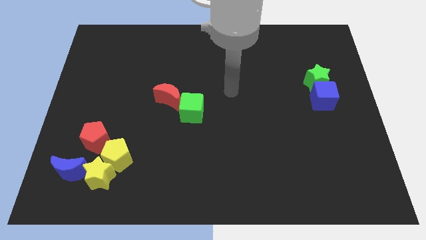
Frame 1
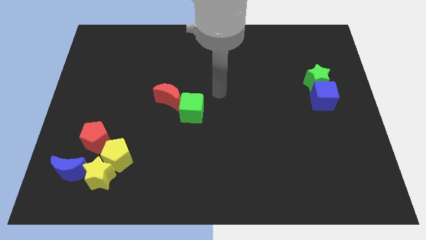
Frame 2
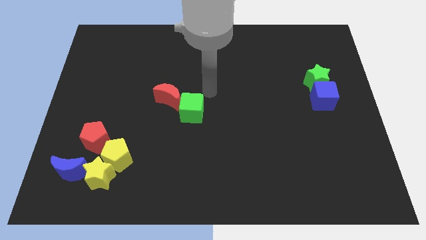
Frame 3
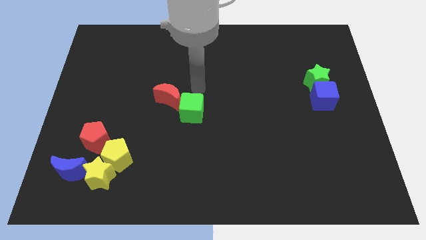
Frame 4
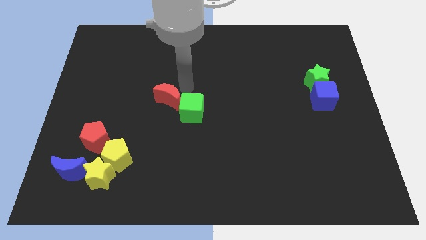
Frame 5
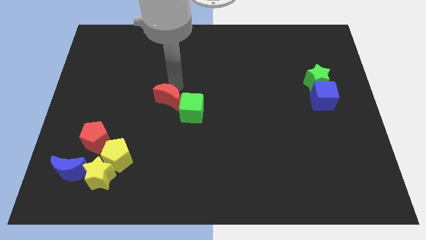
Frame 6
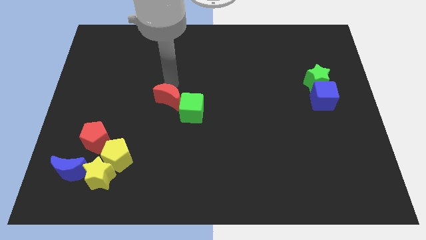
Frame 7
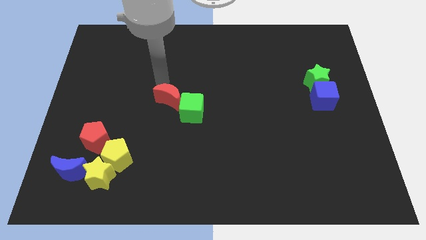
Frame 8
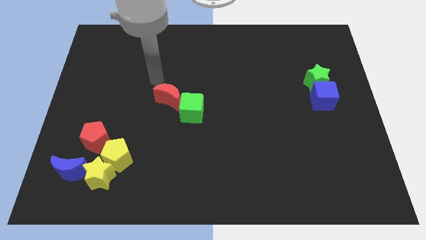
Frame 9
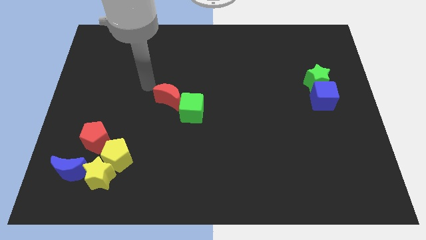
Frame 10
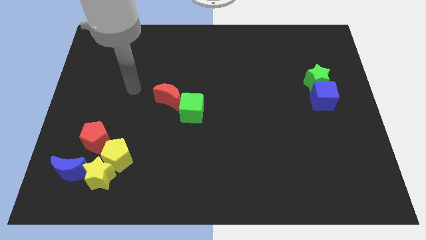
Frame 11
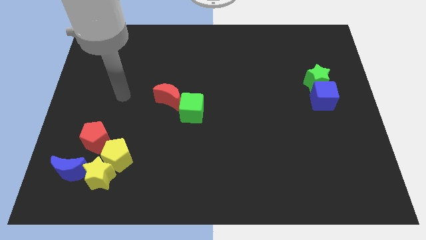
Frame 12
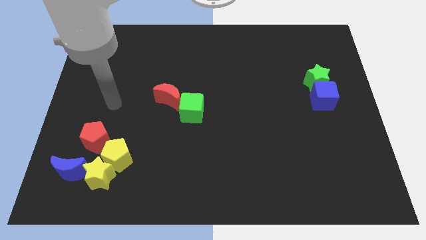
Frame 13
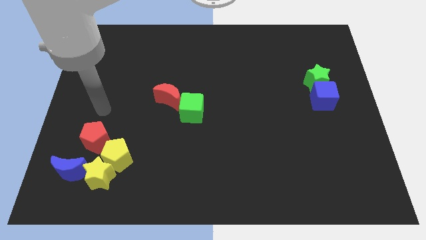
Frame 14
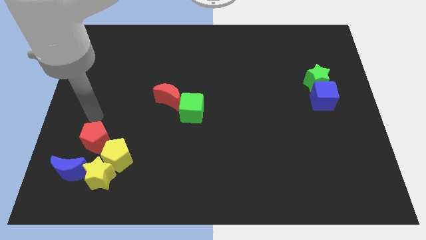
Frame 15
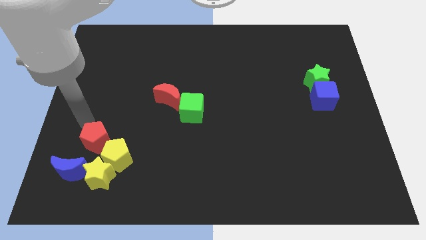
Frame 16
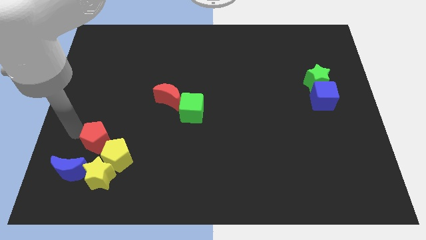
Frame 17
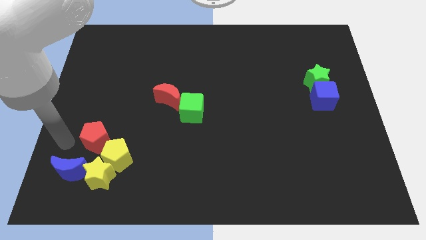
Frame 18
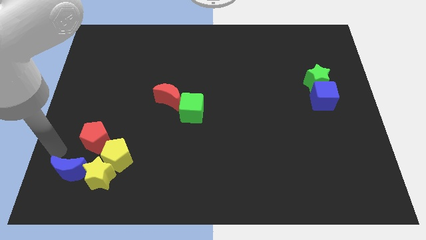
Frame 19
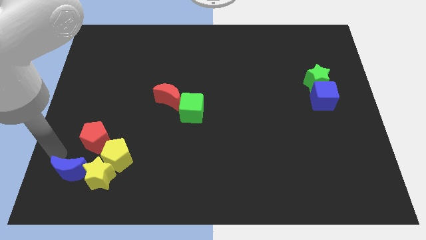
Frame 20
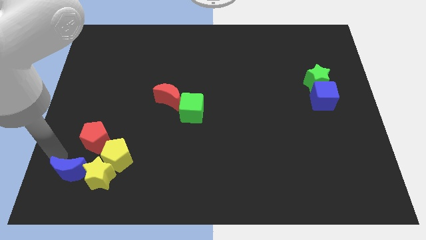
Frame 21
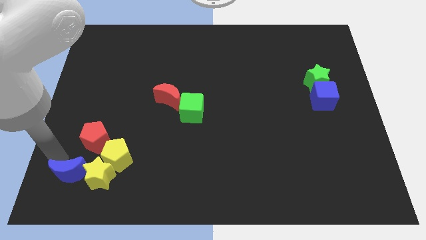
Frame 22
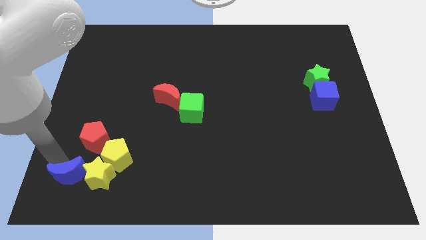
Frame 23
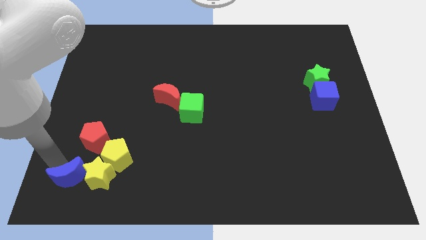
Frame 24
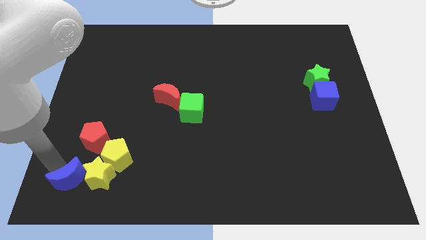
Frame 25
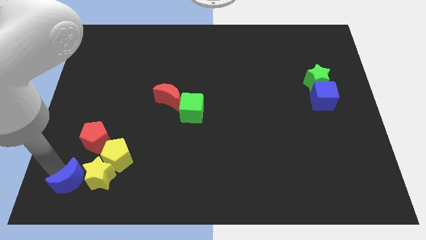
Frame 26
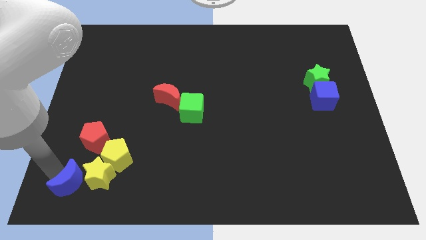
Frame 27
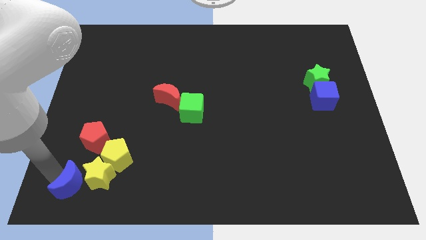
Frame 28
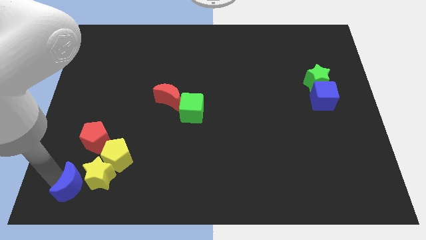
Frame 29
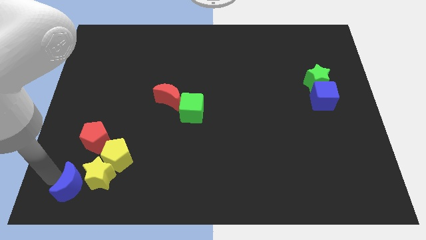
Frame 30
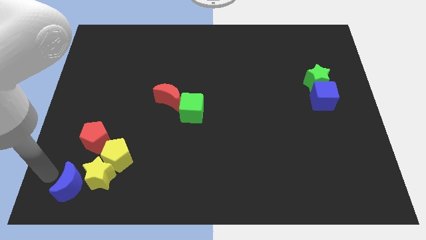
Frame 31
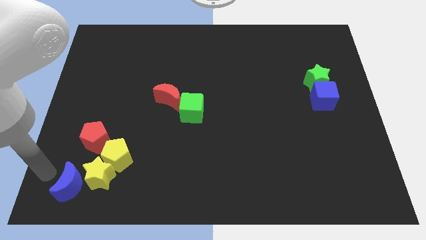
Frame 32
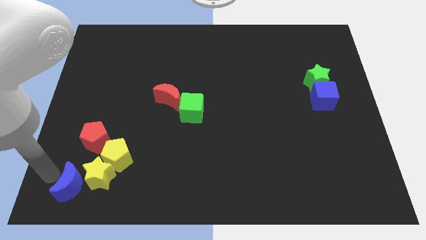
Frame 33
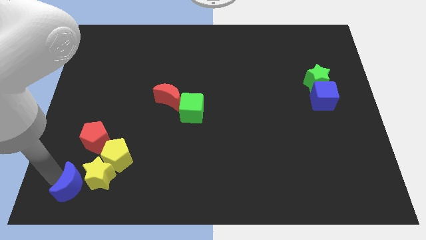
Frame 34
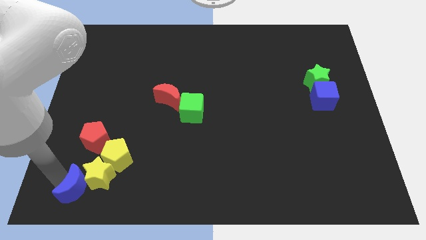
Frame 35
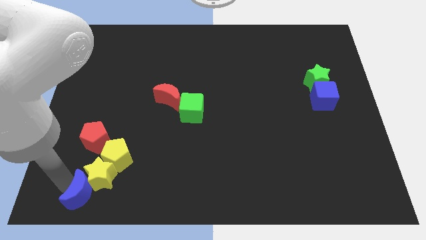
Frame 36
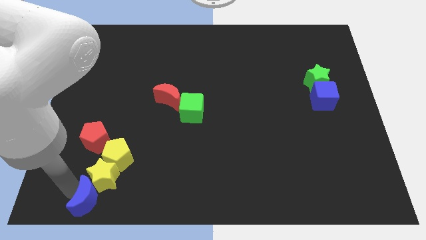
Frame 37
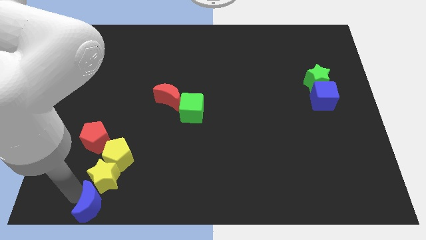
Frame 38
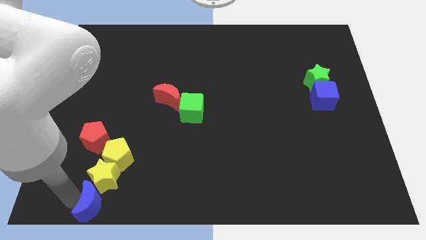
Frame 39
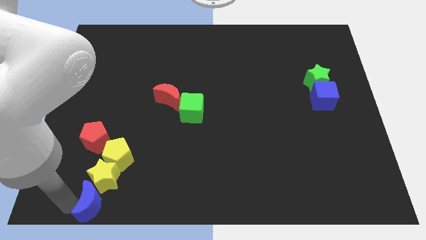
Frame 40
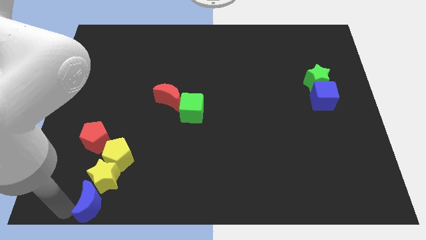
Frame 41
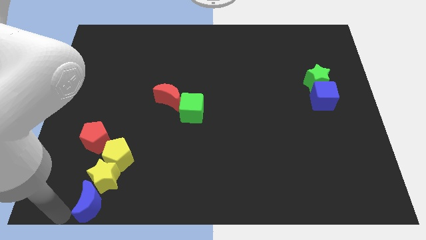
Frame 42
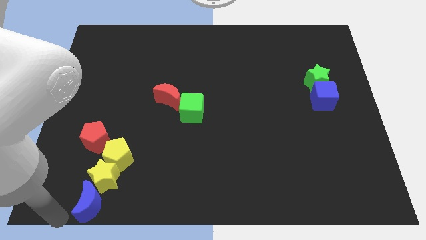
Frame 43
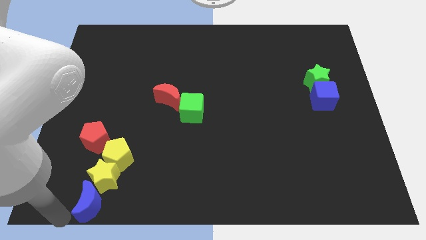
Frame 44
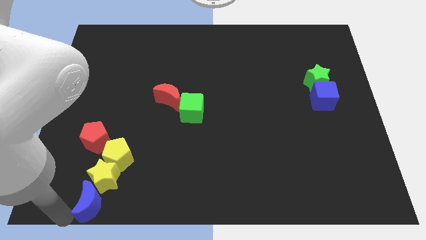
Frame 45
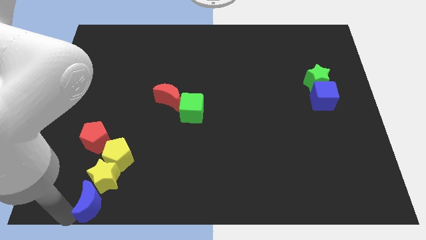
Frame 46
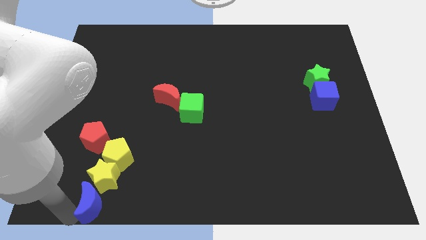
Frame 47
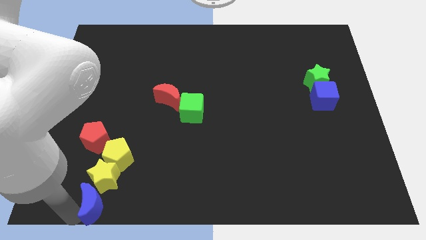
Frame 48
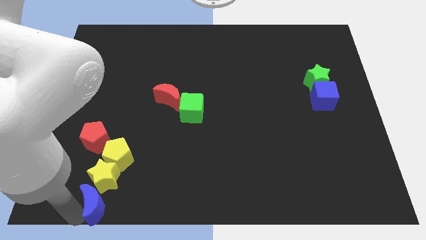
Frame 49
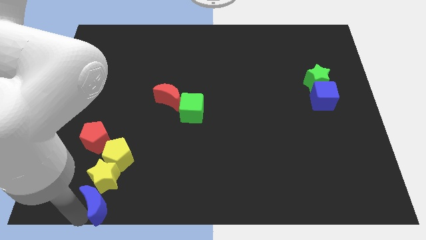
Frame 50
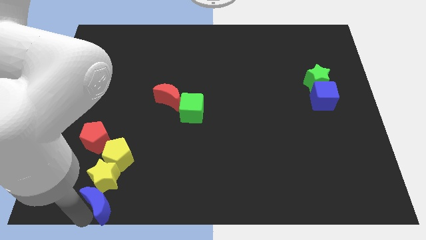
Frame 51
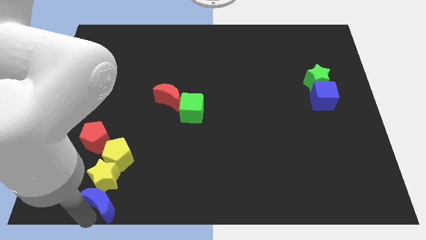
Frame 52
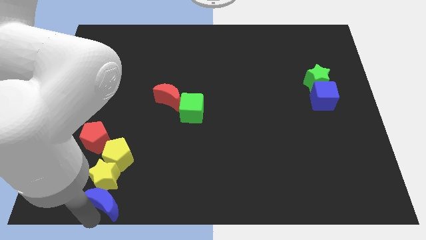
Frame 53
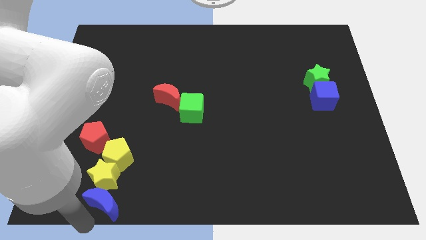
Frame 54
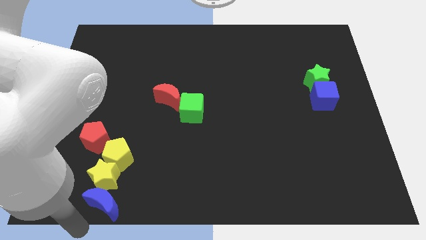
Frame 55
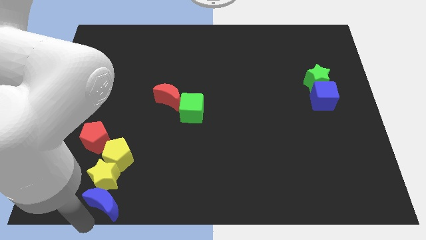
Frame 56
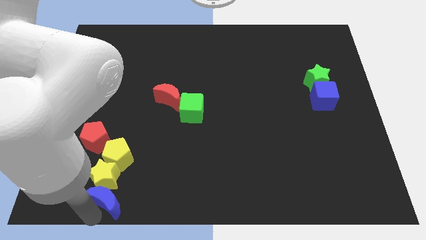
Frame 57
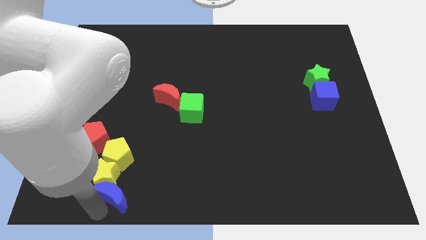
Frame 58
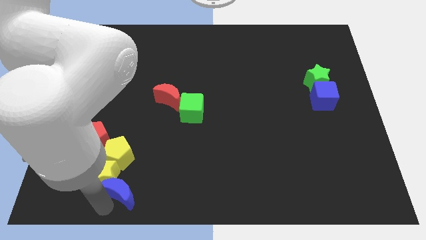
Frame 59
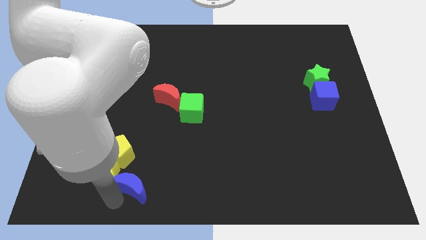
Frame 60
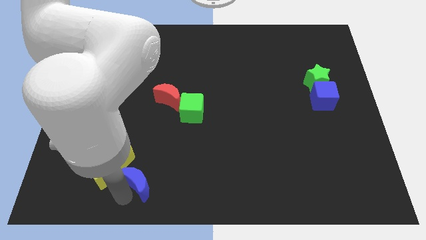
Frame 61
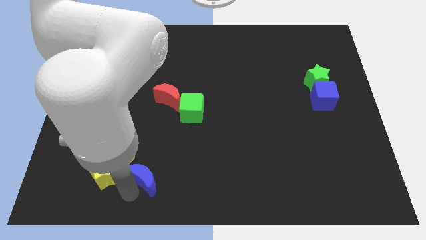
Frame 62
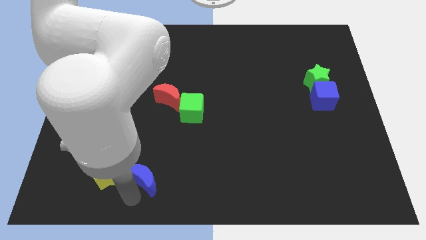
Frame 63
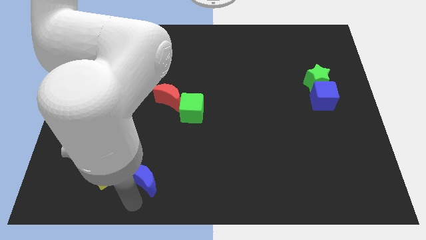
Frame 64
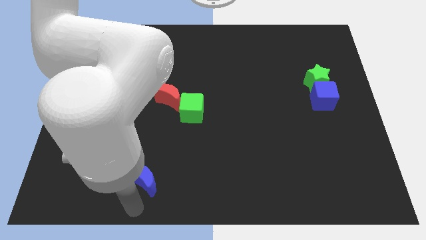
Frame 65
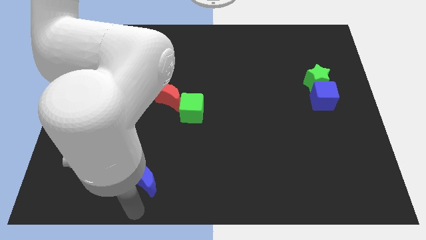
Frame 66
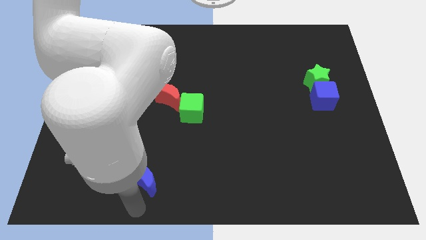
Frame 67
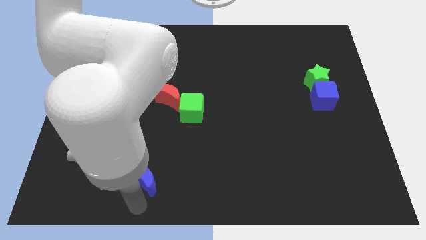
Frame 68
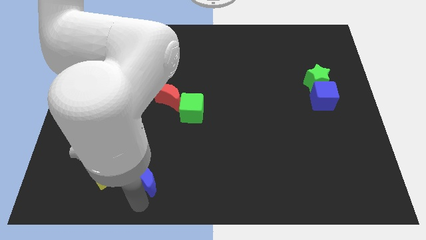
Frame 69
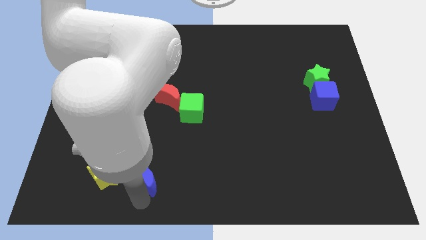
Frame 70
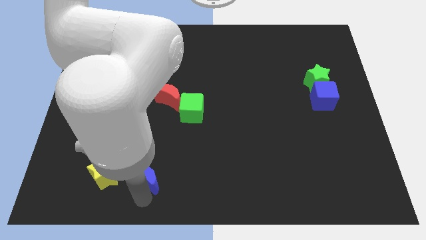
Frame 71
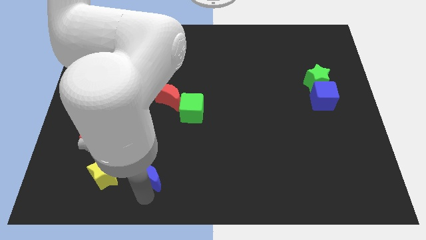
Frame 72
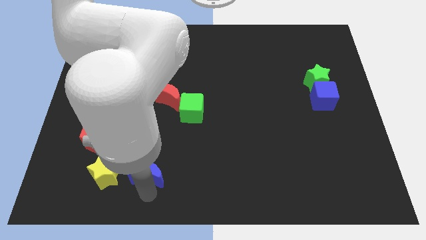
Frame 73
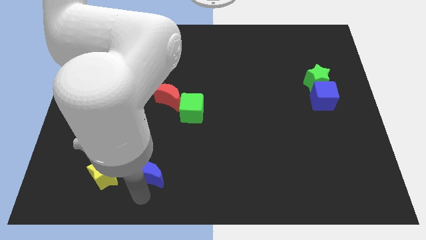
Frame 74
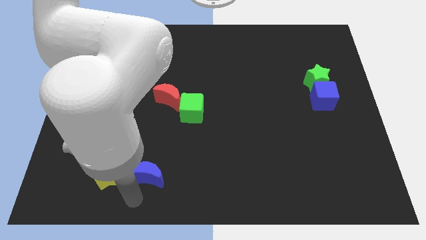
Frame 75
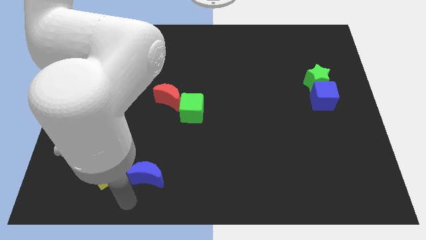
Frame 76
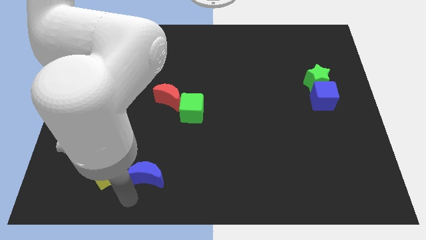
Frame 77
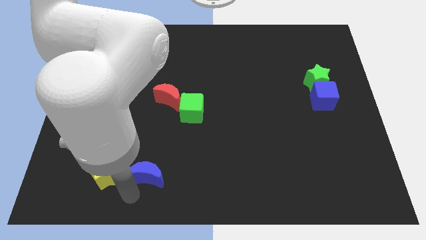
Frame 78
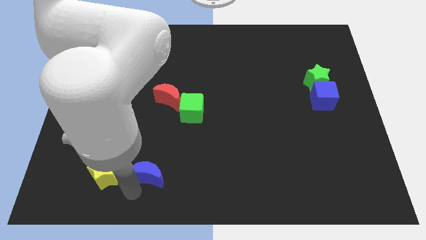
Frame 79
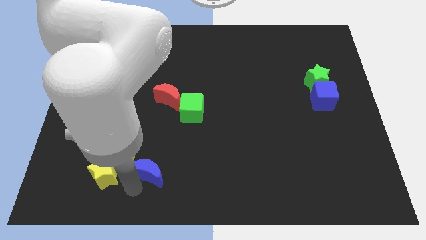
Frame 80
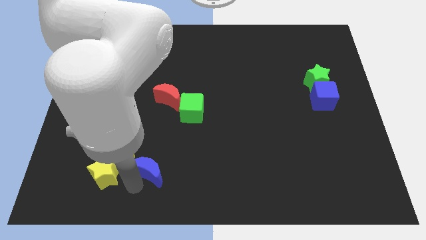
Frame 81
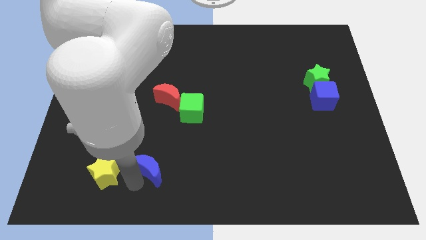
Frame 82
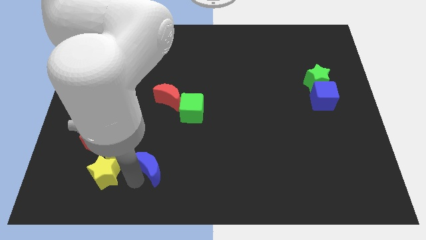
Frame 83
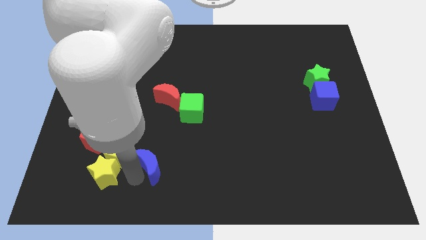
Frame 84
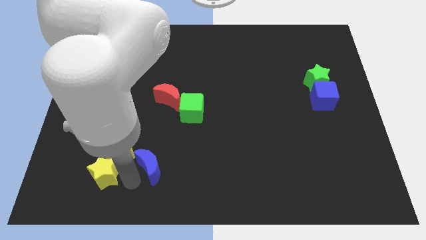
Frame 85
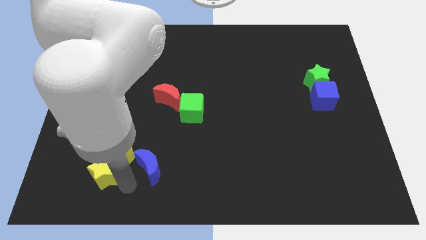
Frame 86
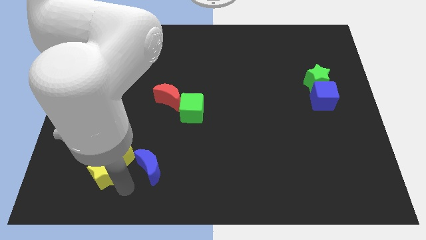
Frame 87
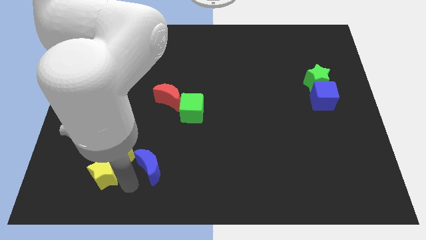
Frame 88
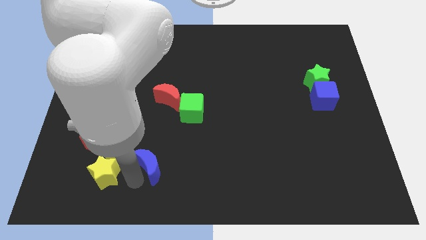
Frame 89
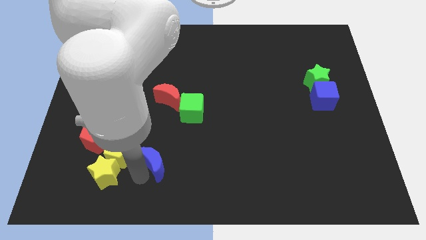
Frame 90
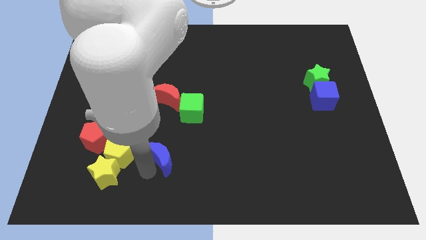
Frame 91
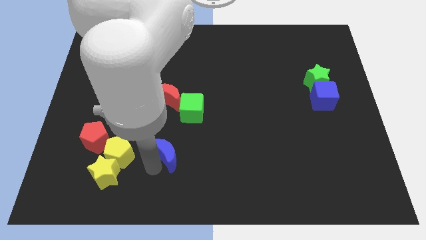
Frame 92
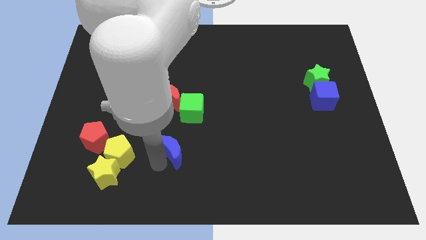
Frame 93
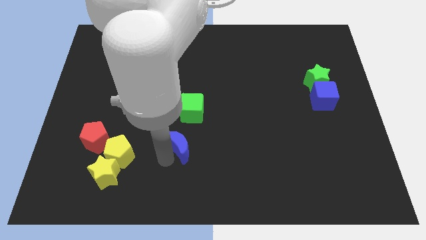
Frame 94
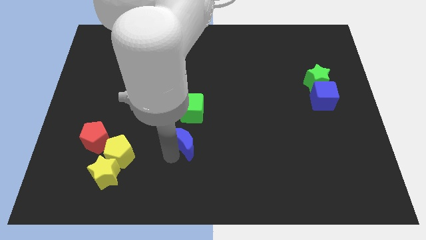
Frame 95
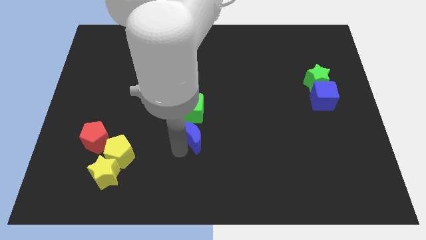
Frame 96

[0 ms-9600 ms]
move the blue moon to the middle
